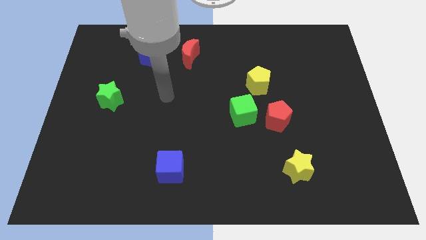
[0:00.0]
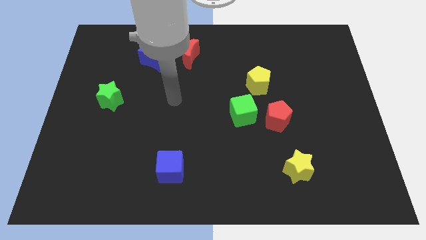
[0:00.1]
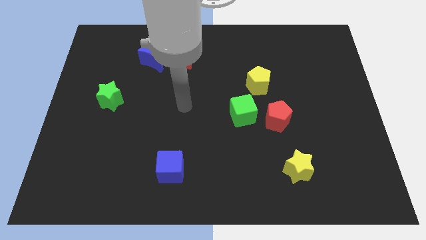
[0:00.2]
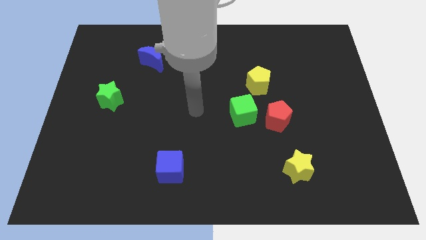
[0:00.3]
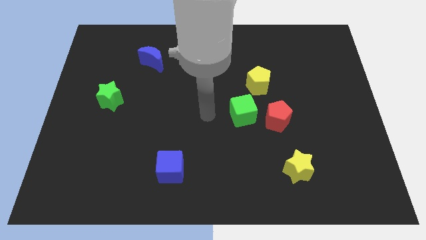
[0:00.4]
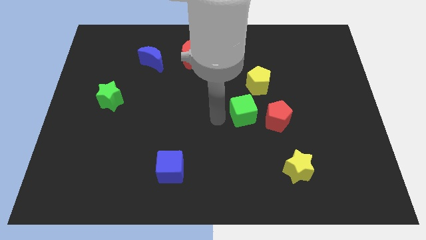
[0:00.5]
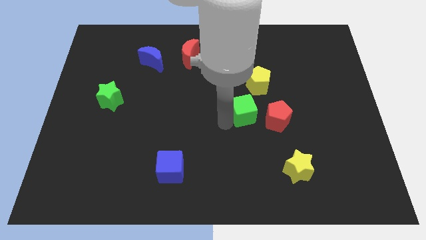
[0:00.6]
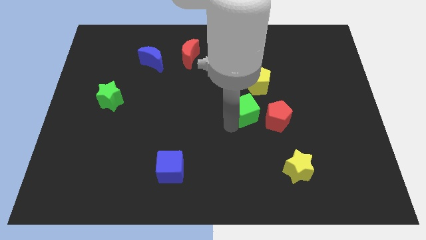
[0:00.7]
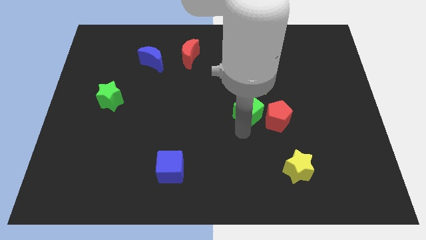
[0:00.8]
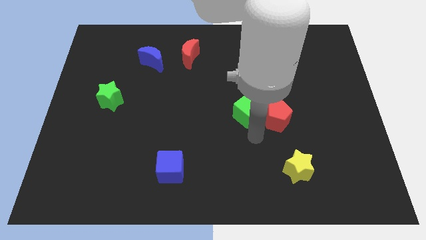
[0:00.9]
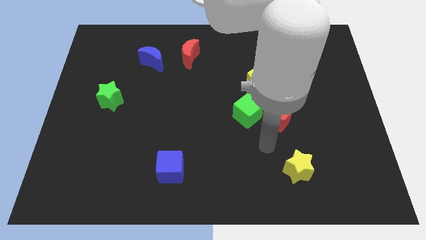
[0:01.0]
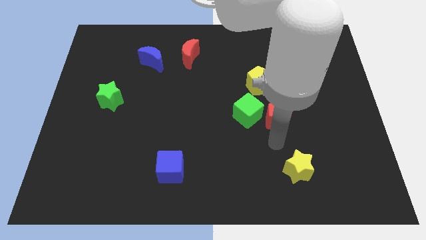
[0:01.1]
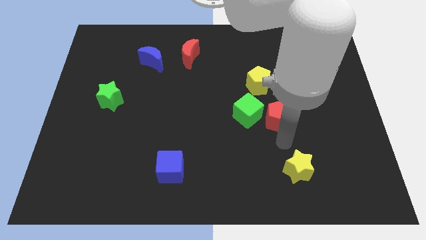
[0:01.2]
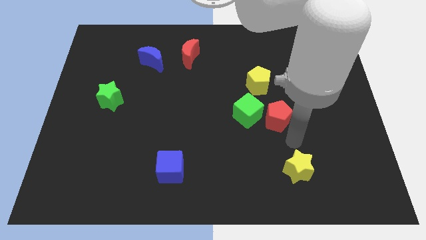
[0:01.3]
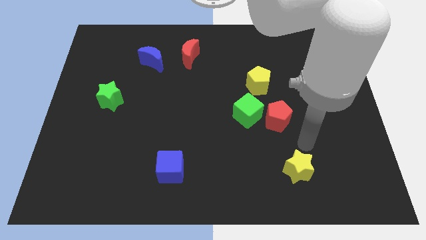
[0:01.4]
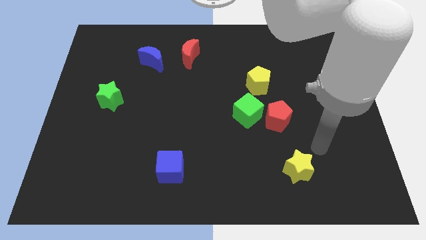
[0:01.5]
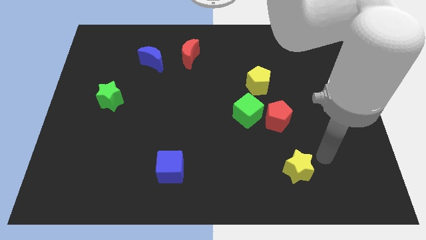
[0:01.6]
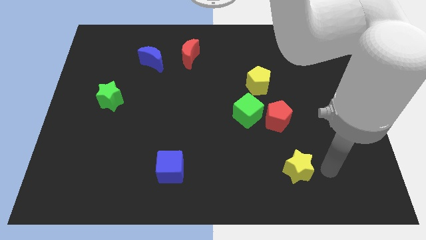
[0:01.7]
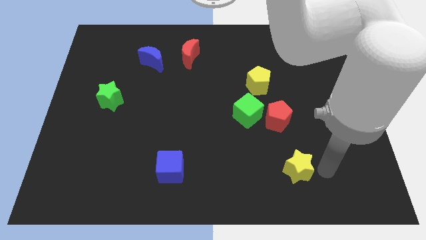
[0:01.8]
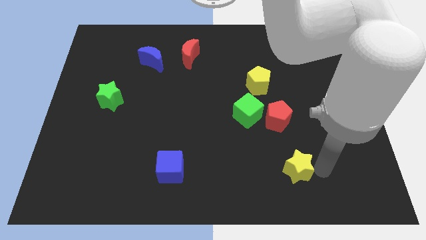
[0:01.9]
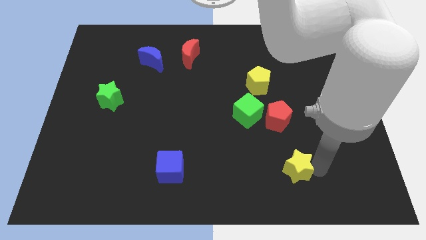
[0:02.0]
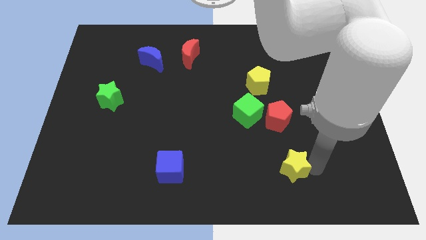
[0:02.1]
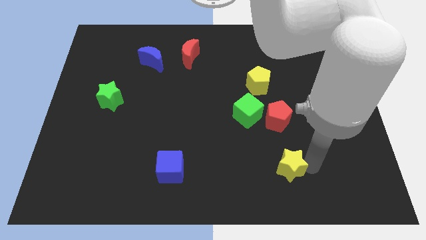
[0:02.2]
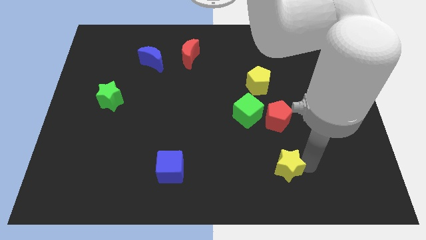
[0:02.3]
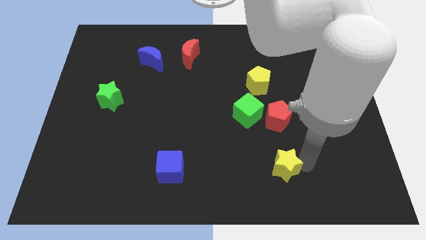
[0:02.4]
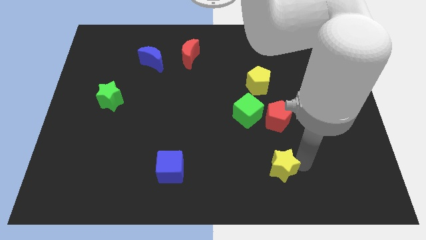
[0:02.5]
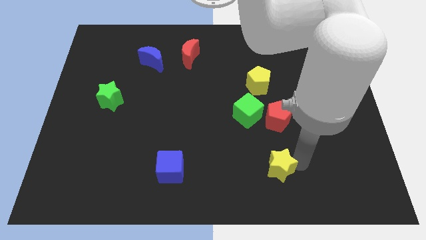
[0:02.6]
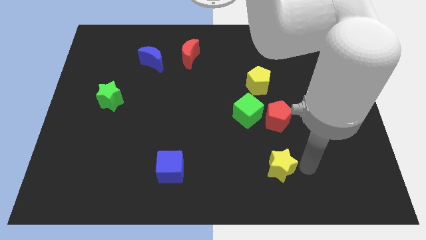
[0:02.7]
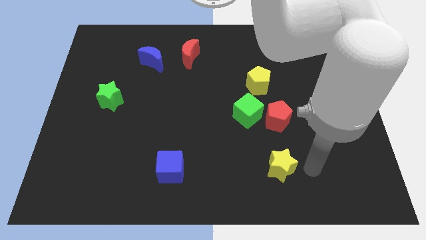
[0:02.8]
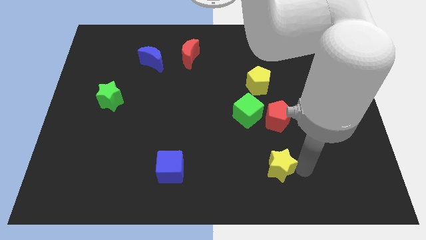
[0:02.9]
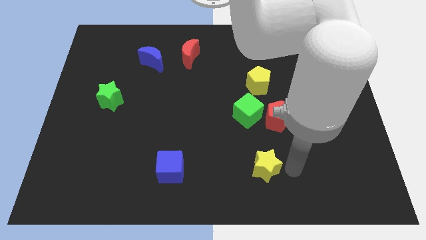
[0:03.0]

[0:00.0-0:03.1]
move the yellow star left a little

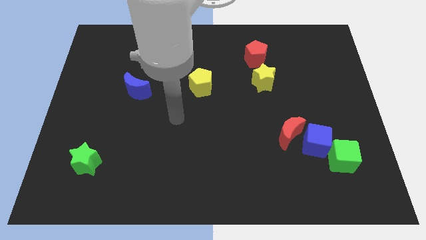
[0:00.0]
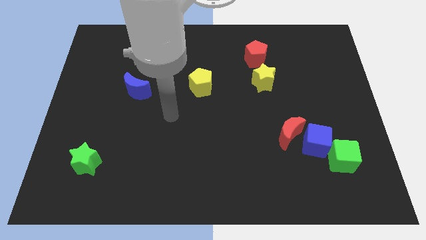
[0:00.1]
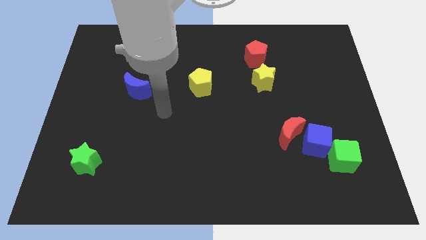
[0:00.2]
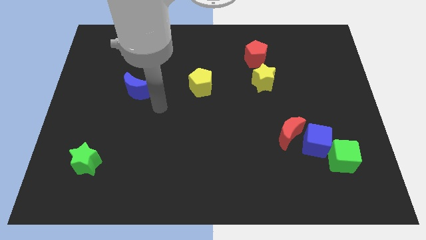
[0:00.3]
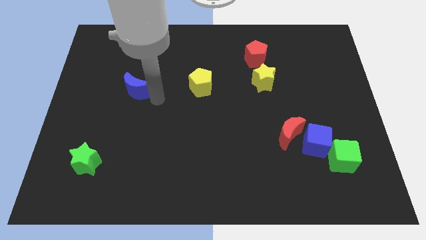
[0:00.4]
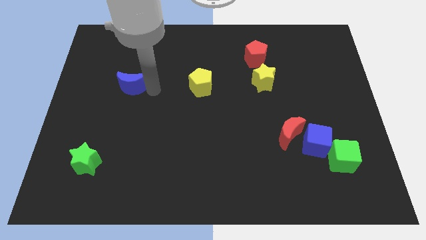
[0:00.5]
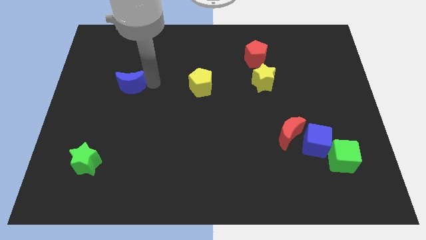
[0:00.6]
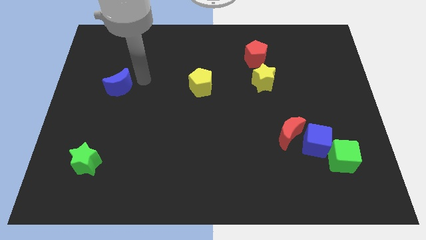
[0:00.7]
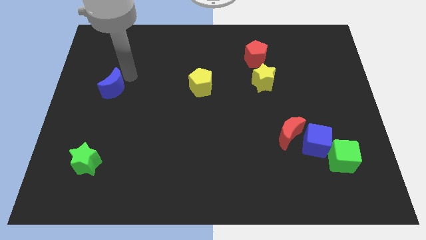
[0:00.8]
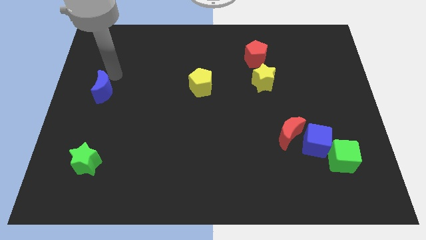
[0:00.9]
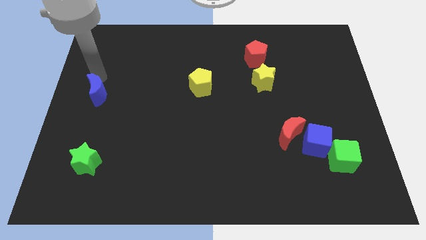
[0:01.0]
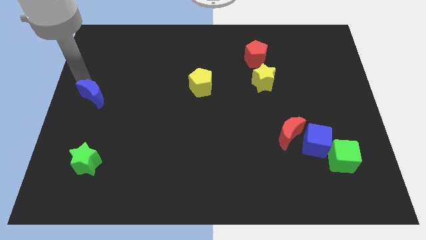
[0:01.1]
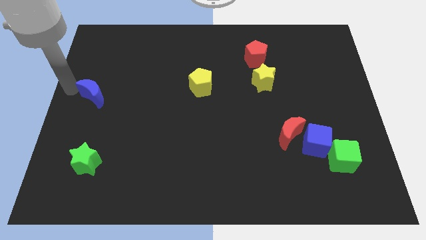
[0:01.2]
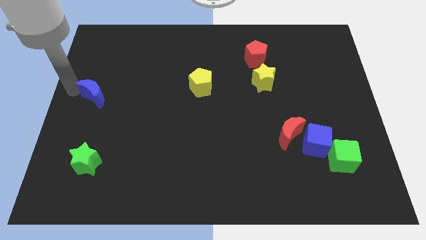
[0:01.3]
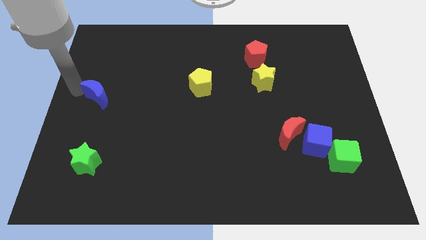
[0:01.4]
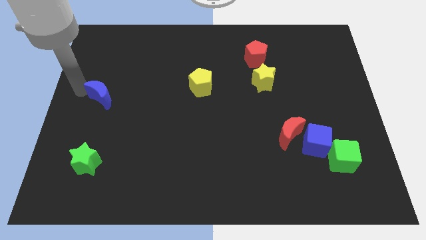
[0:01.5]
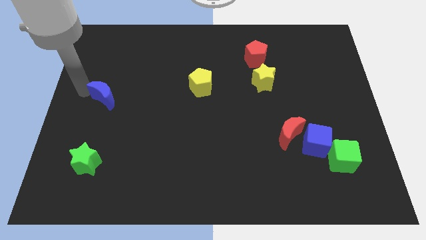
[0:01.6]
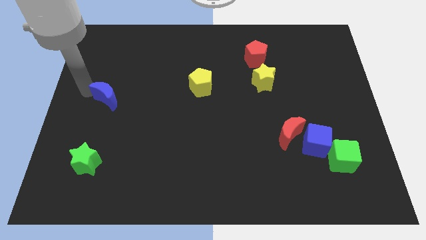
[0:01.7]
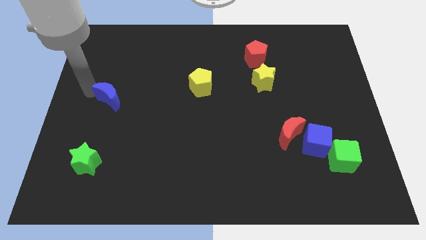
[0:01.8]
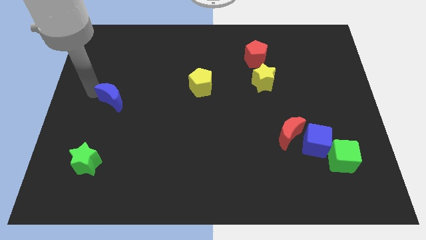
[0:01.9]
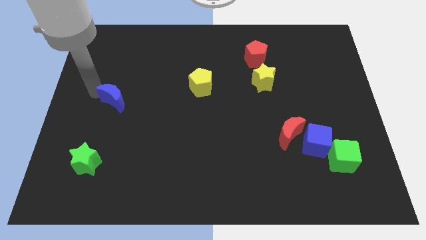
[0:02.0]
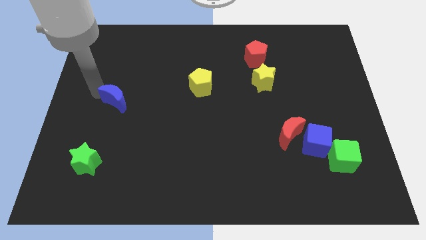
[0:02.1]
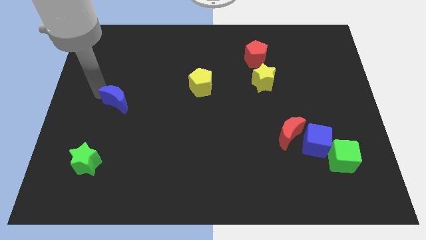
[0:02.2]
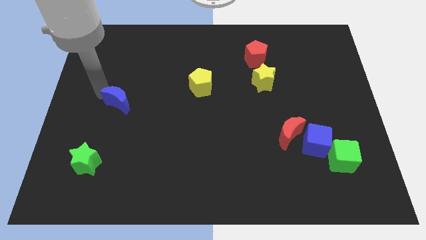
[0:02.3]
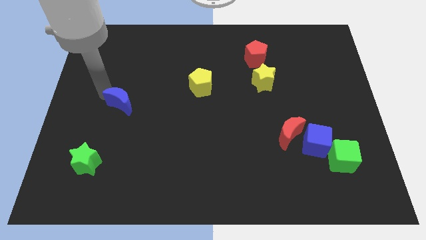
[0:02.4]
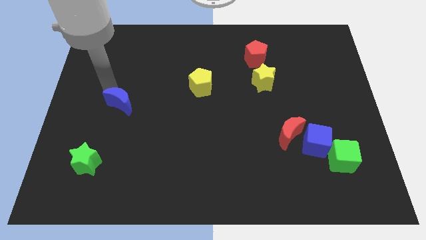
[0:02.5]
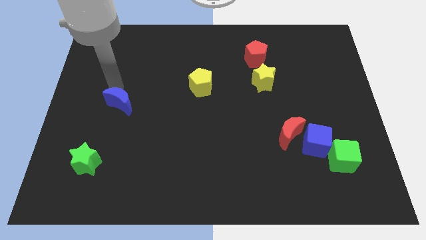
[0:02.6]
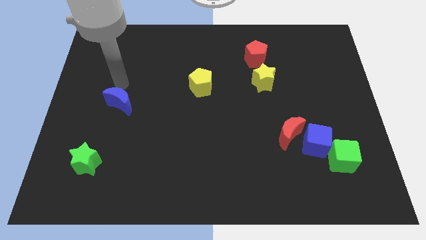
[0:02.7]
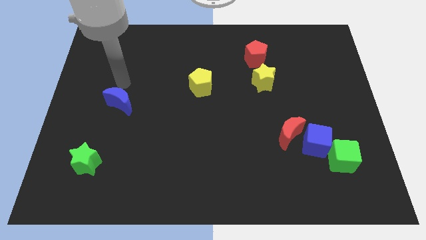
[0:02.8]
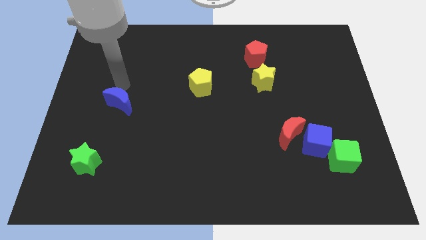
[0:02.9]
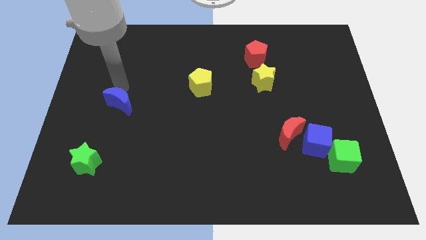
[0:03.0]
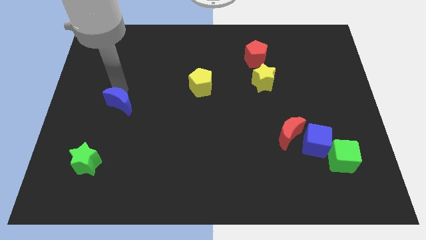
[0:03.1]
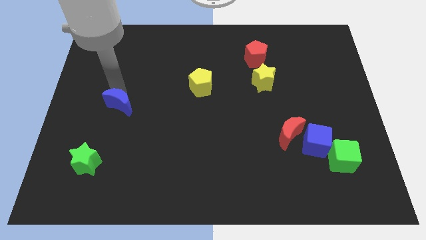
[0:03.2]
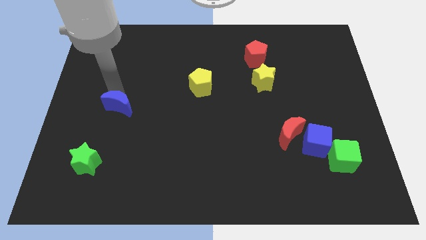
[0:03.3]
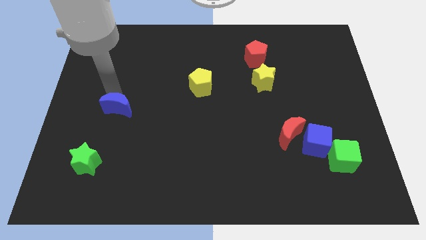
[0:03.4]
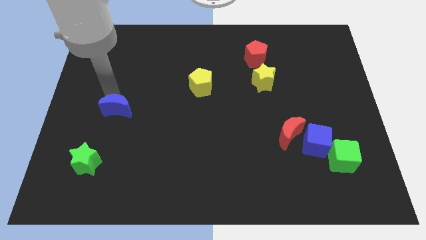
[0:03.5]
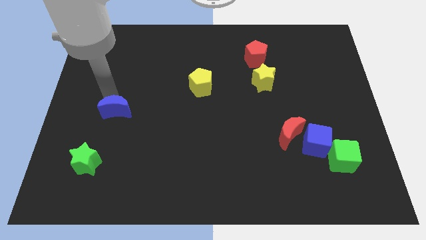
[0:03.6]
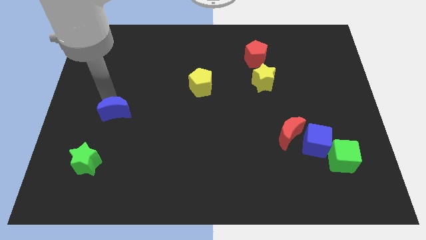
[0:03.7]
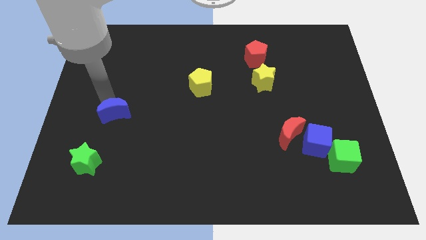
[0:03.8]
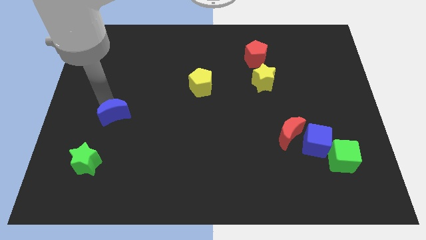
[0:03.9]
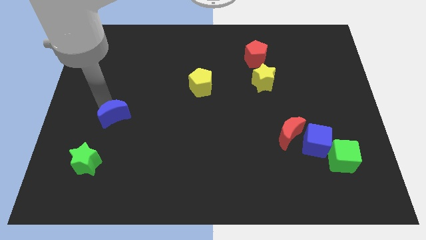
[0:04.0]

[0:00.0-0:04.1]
slightly push the blue moon downwards

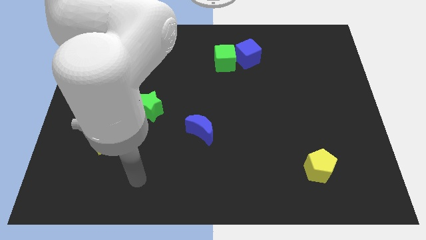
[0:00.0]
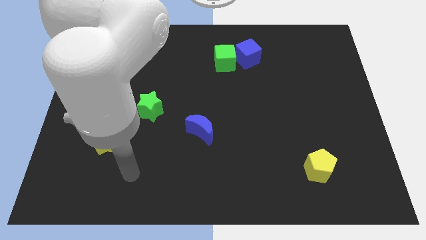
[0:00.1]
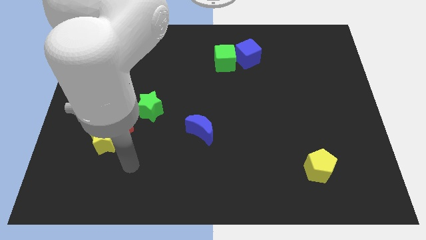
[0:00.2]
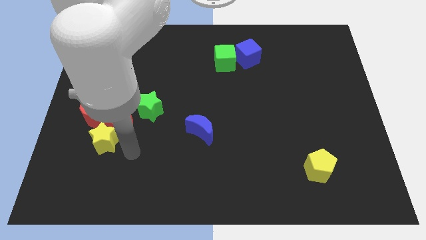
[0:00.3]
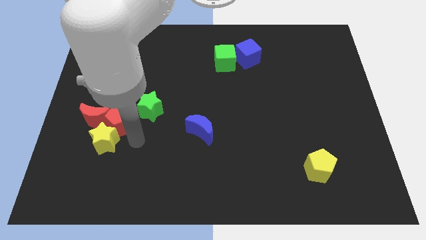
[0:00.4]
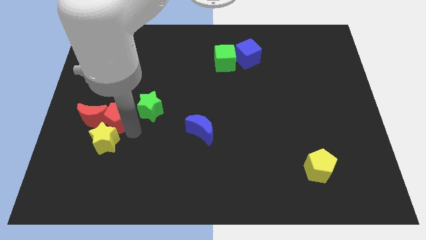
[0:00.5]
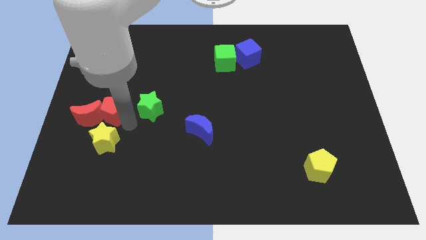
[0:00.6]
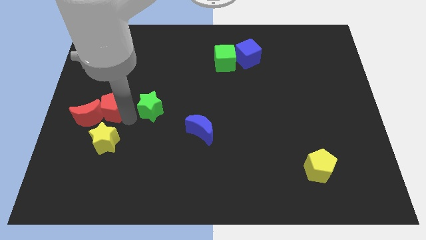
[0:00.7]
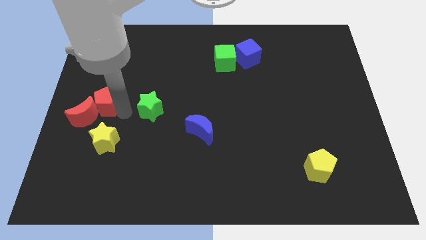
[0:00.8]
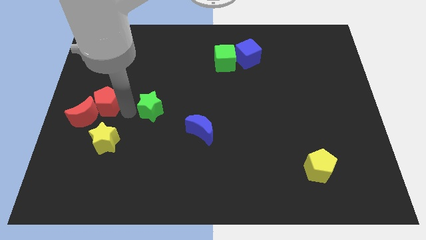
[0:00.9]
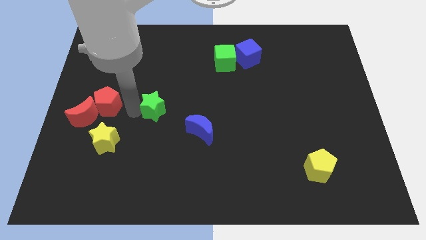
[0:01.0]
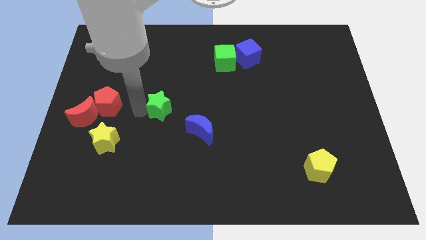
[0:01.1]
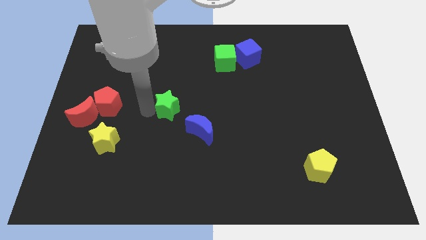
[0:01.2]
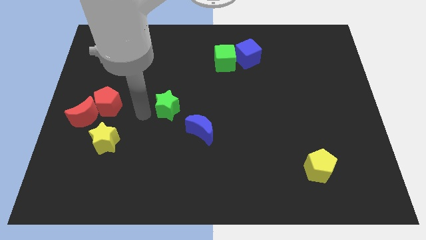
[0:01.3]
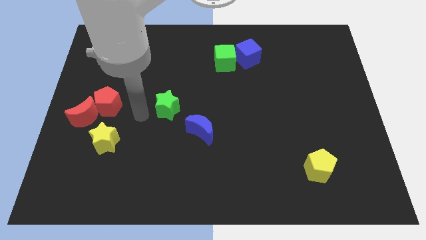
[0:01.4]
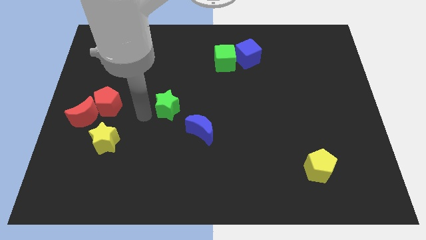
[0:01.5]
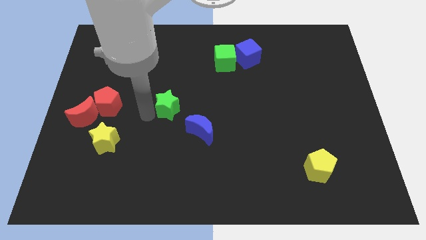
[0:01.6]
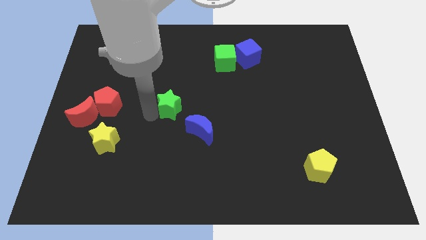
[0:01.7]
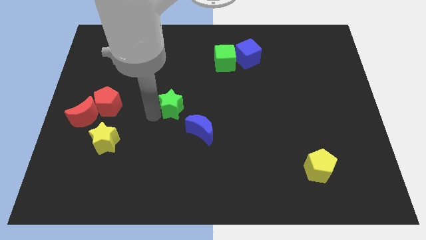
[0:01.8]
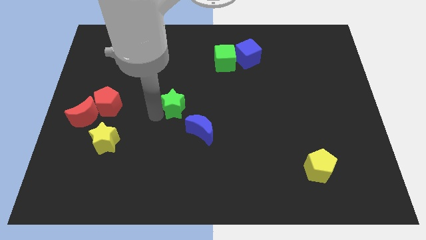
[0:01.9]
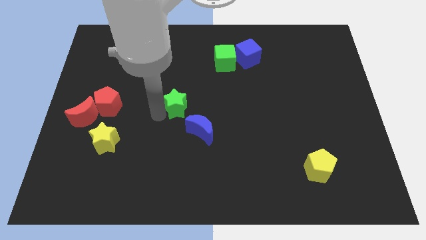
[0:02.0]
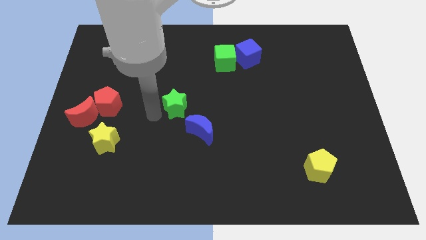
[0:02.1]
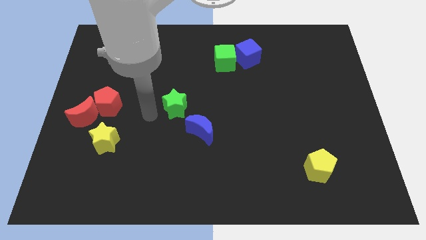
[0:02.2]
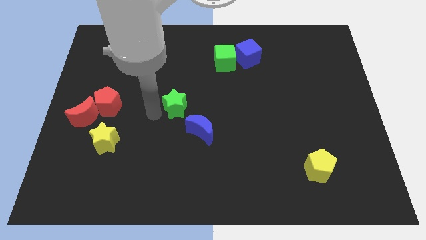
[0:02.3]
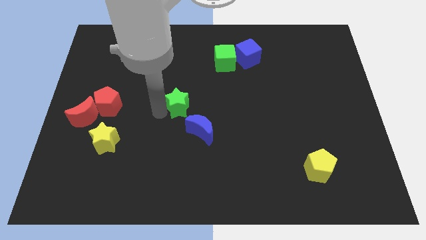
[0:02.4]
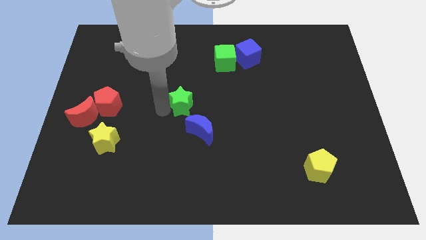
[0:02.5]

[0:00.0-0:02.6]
move the green star a little bit to the right
